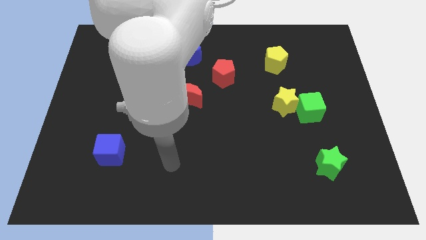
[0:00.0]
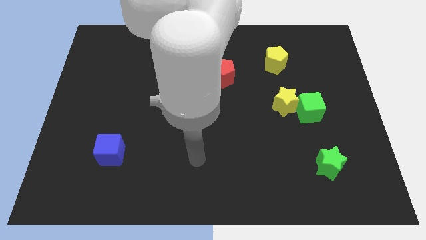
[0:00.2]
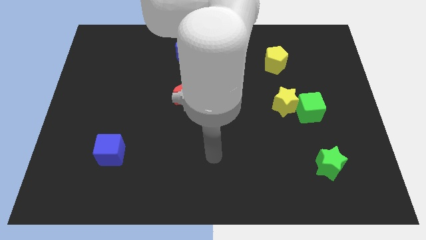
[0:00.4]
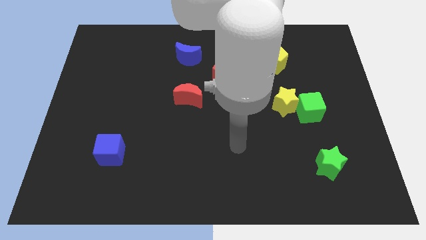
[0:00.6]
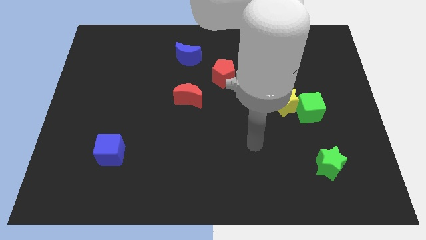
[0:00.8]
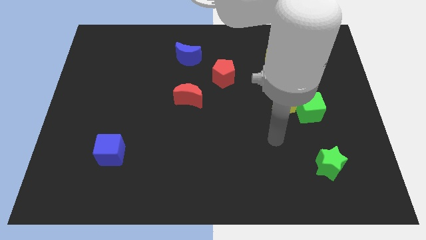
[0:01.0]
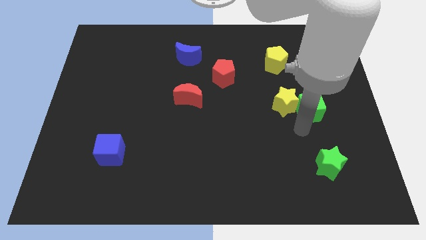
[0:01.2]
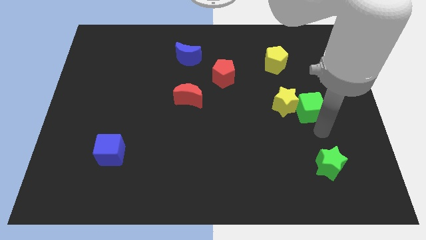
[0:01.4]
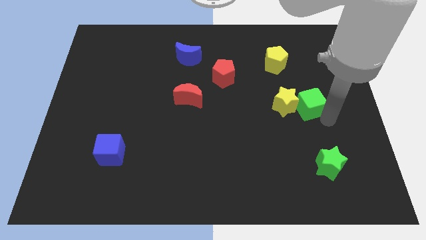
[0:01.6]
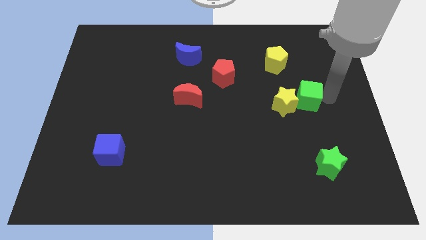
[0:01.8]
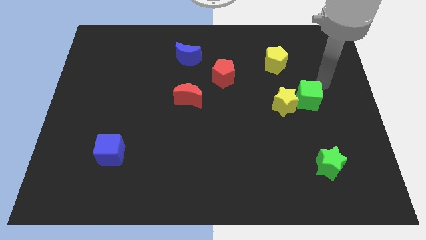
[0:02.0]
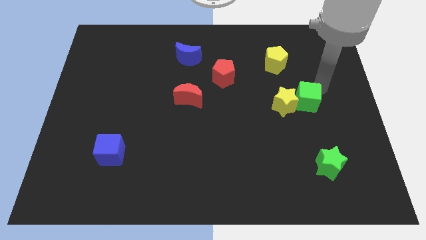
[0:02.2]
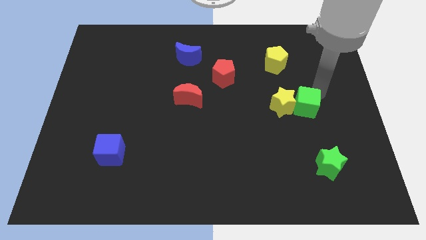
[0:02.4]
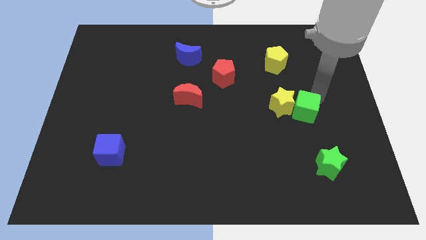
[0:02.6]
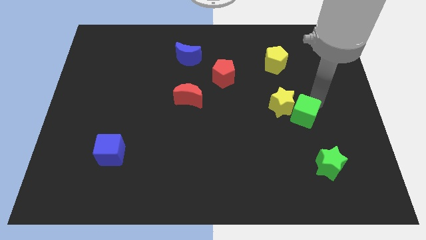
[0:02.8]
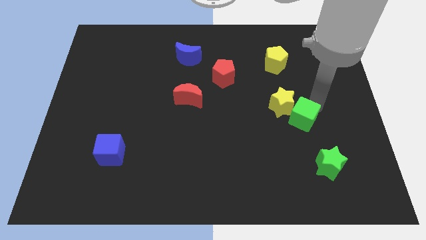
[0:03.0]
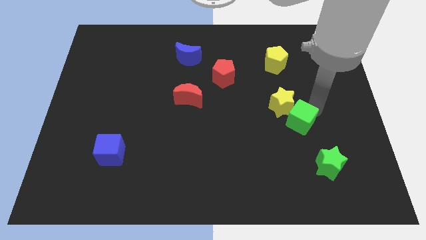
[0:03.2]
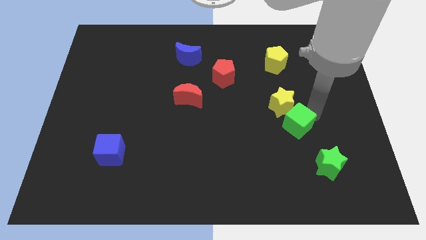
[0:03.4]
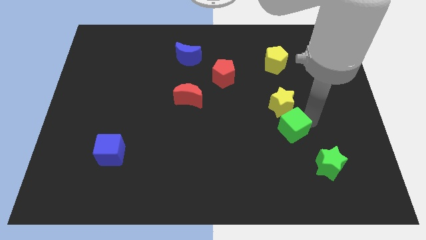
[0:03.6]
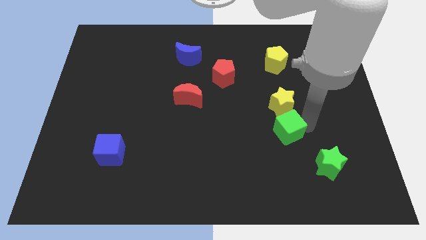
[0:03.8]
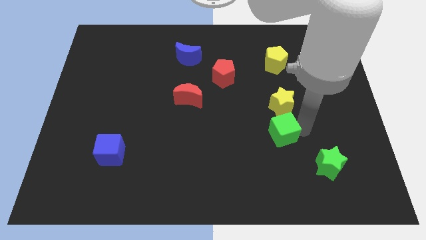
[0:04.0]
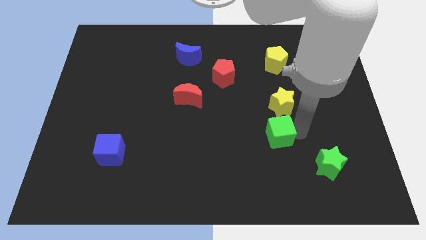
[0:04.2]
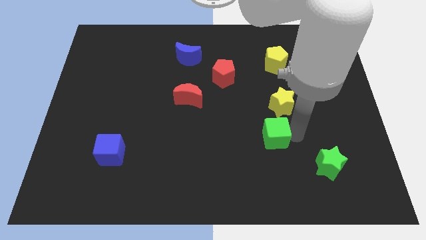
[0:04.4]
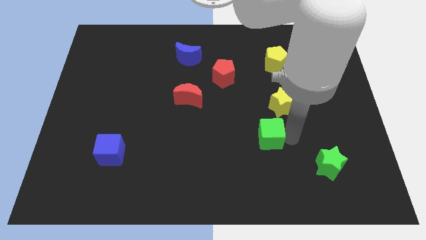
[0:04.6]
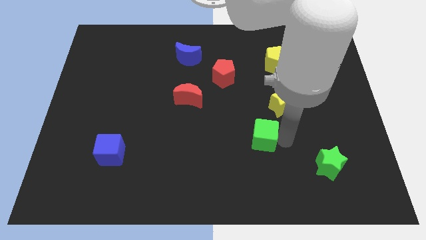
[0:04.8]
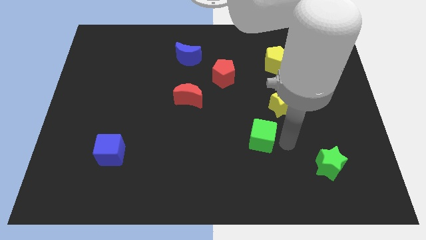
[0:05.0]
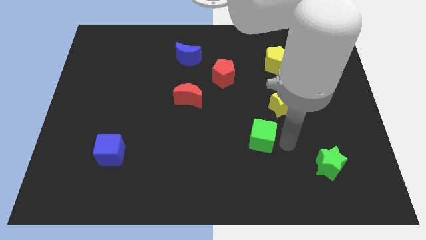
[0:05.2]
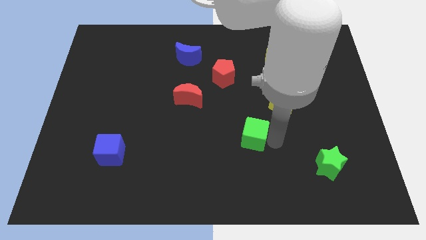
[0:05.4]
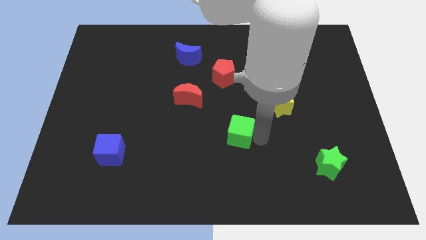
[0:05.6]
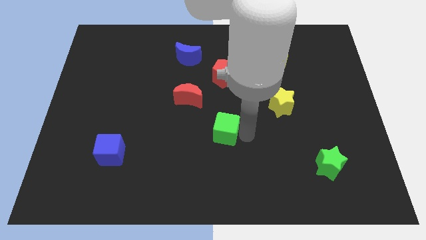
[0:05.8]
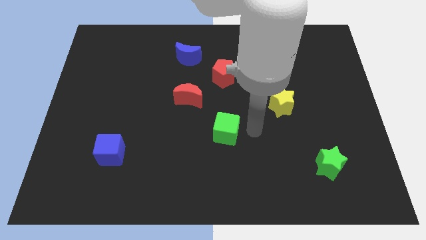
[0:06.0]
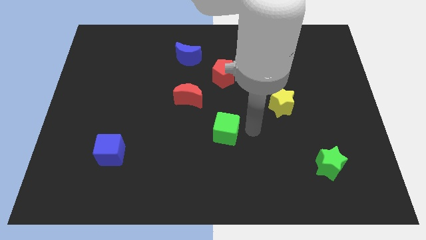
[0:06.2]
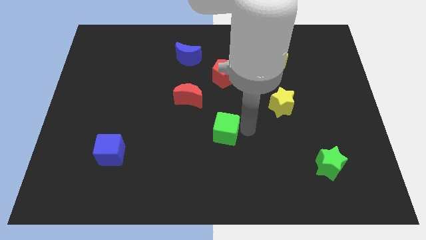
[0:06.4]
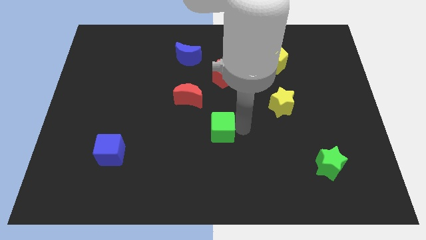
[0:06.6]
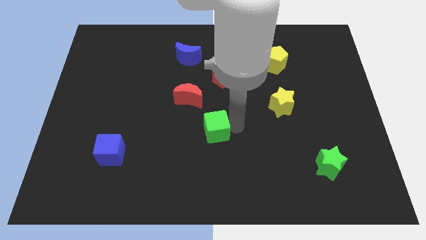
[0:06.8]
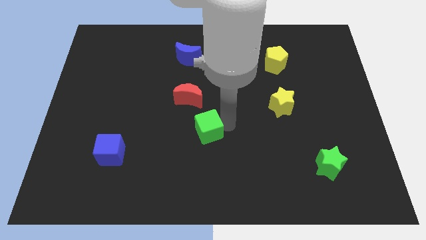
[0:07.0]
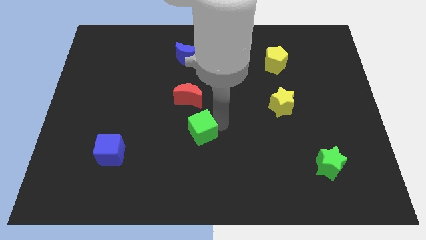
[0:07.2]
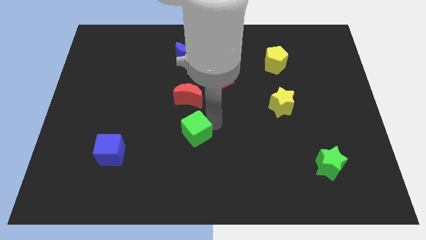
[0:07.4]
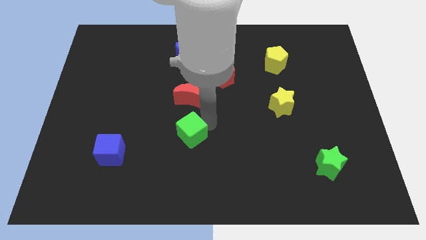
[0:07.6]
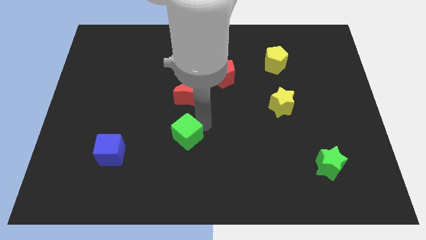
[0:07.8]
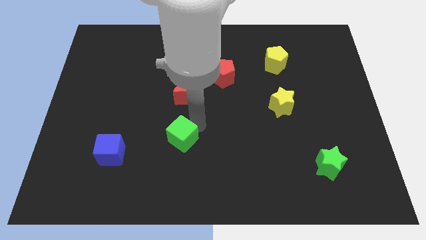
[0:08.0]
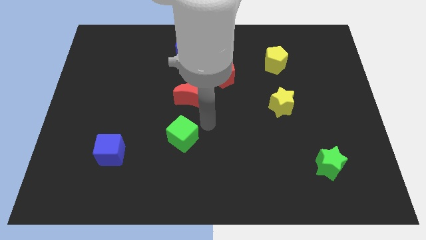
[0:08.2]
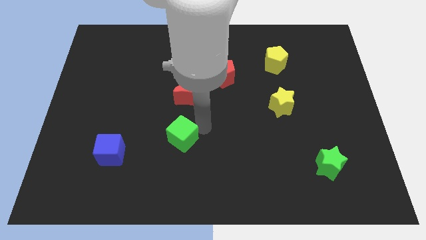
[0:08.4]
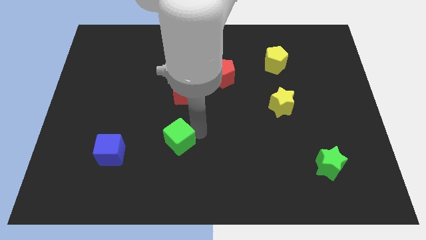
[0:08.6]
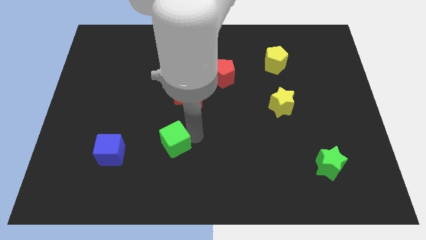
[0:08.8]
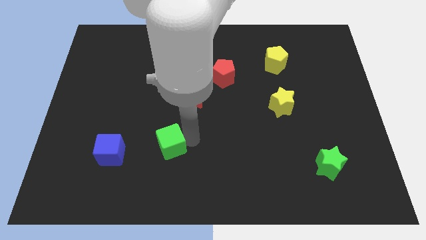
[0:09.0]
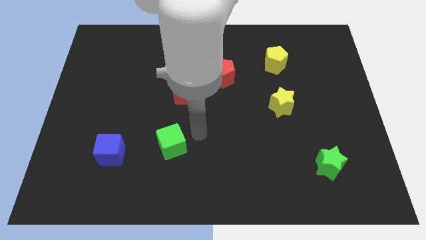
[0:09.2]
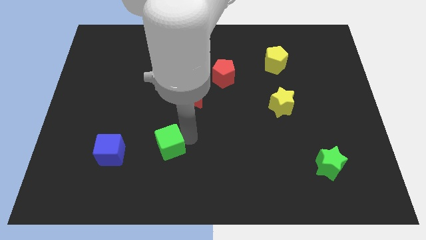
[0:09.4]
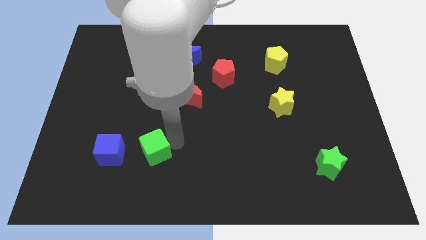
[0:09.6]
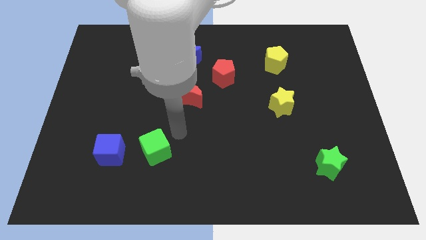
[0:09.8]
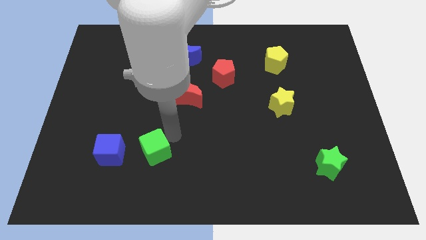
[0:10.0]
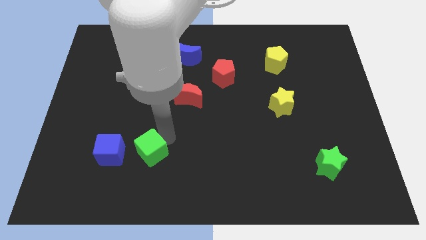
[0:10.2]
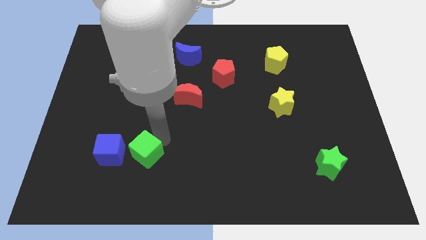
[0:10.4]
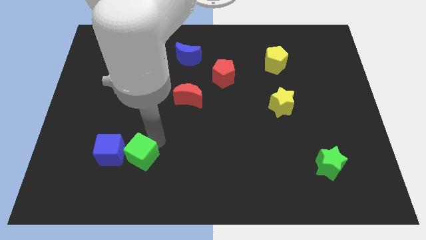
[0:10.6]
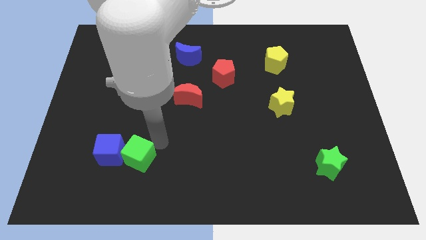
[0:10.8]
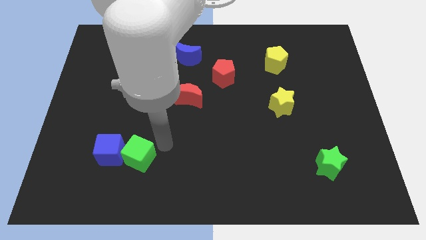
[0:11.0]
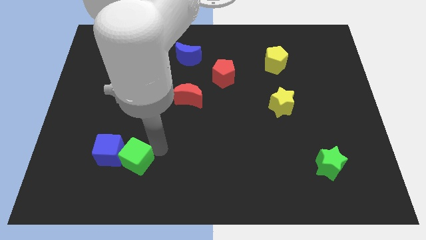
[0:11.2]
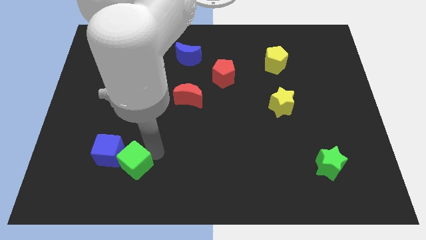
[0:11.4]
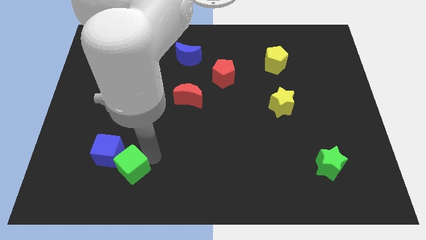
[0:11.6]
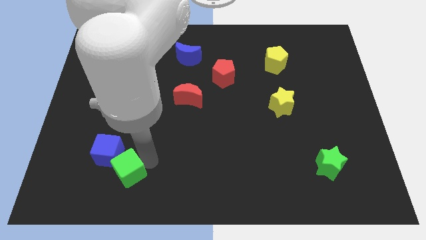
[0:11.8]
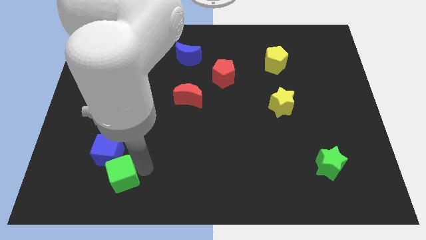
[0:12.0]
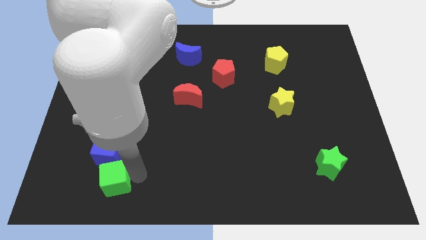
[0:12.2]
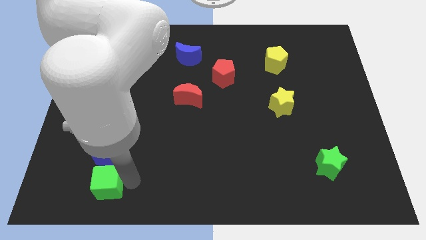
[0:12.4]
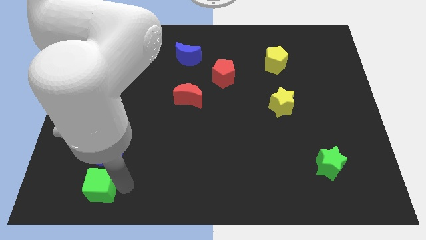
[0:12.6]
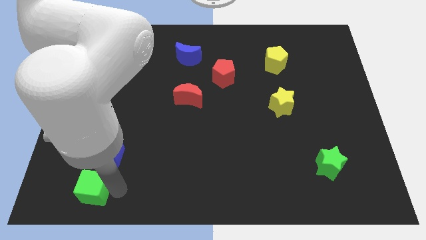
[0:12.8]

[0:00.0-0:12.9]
slide the green cube diagonally down and to the left of the blue cube
